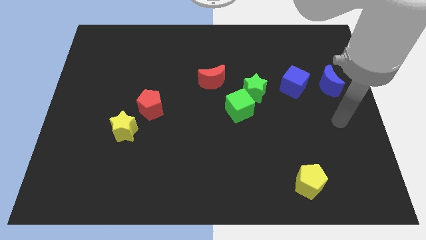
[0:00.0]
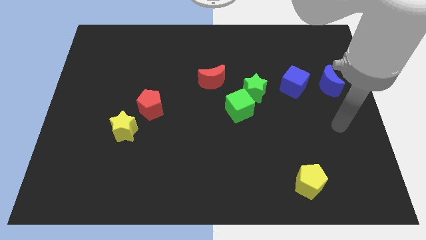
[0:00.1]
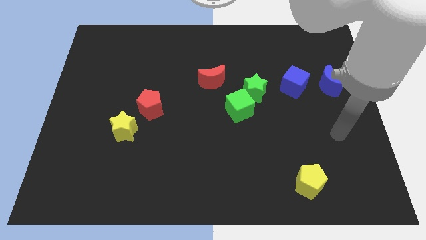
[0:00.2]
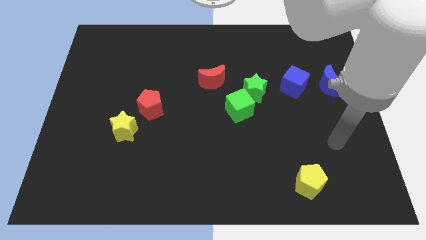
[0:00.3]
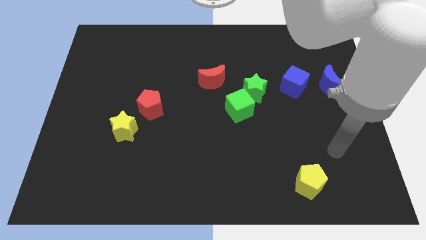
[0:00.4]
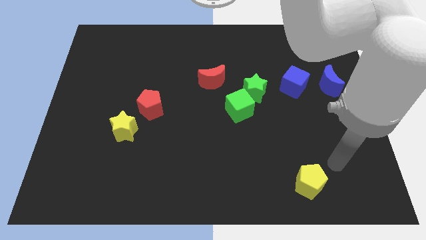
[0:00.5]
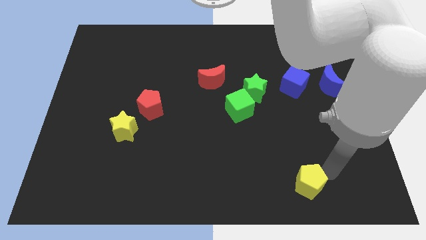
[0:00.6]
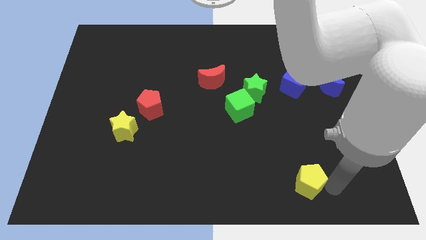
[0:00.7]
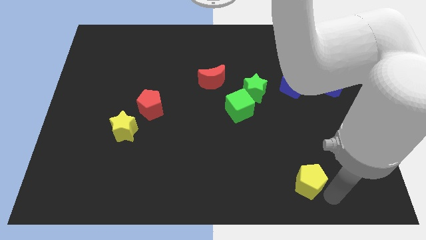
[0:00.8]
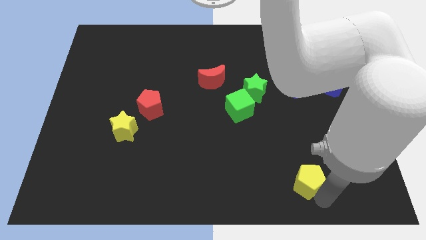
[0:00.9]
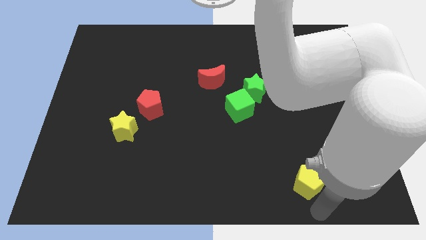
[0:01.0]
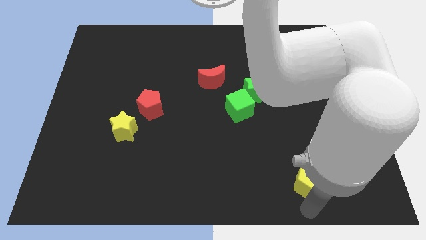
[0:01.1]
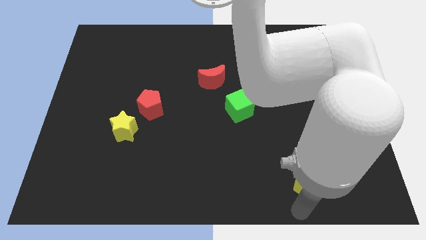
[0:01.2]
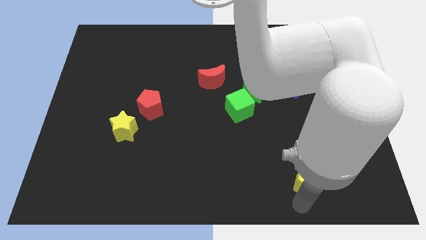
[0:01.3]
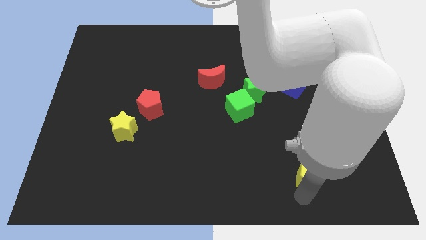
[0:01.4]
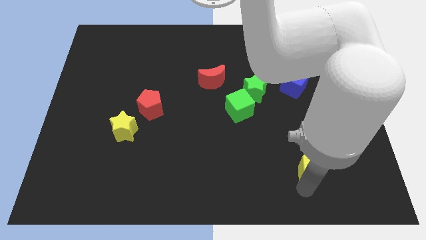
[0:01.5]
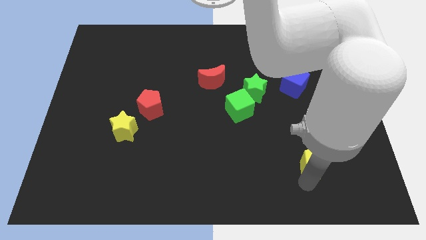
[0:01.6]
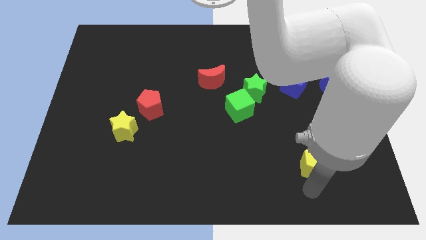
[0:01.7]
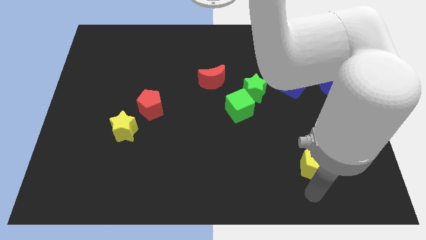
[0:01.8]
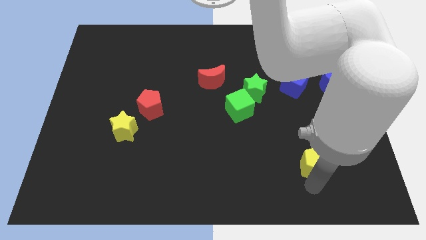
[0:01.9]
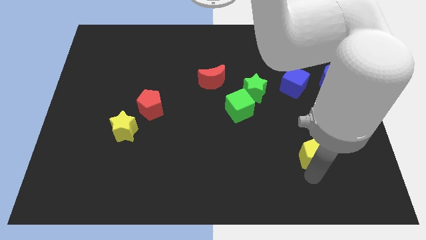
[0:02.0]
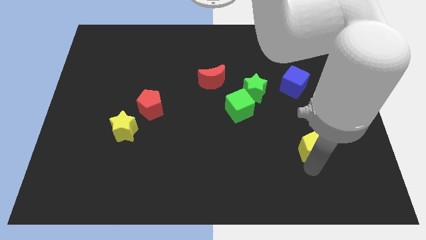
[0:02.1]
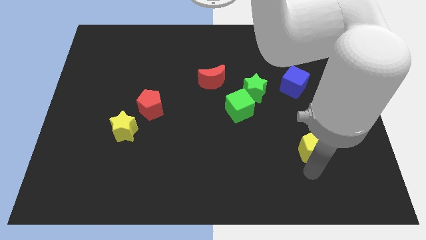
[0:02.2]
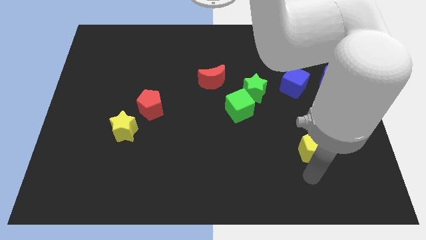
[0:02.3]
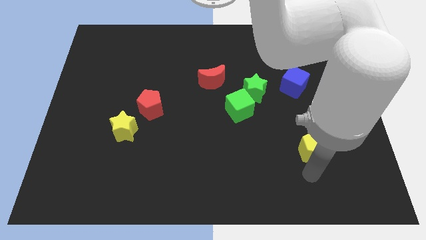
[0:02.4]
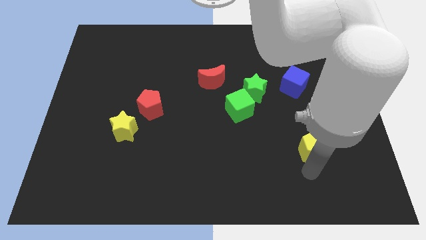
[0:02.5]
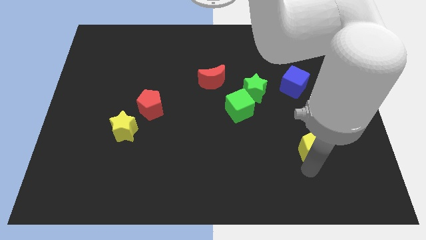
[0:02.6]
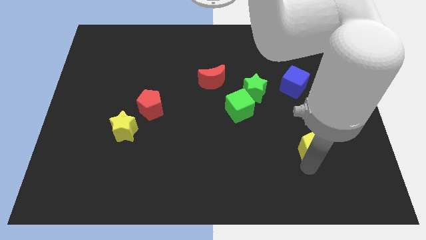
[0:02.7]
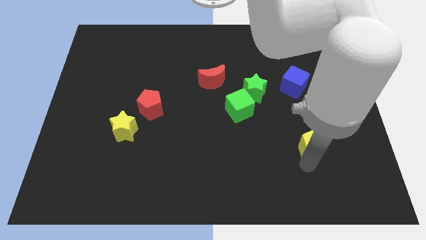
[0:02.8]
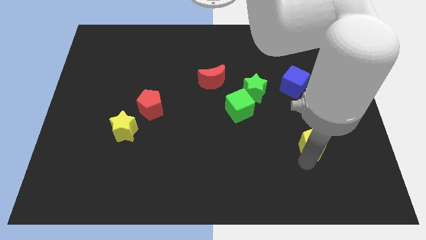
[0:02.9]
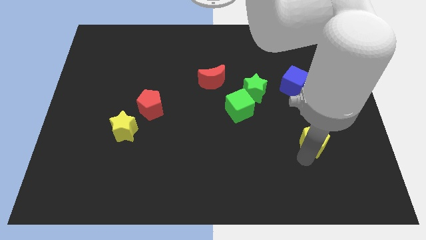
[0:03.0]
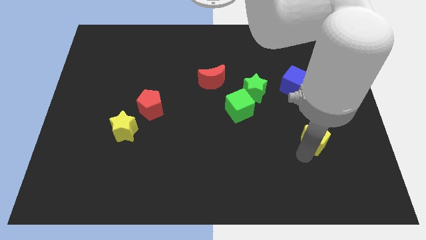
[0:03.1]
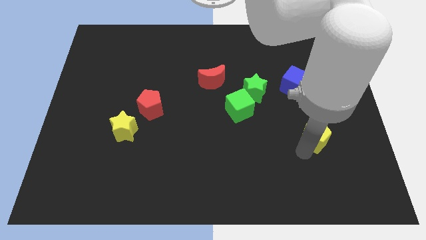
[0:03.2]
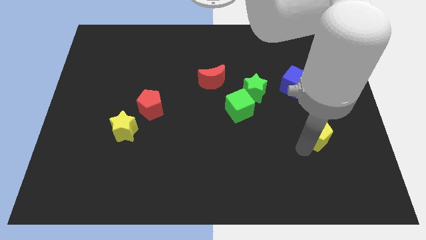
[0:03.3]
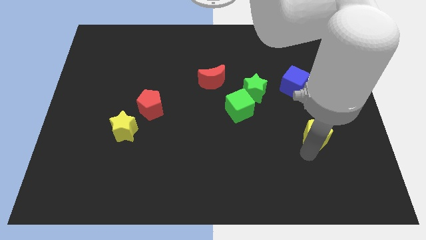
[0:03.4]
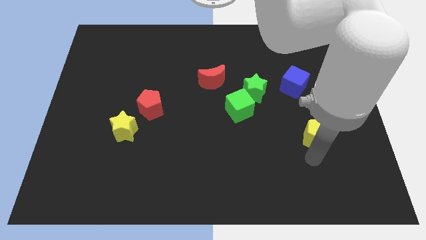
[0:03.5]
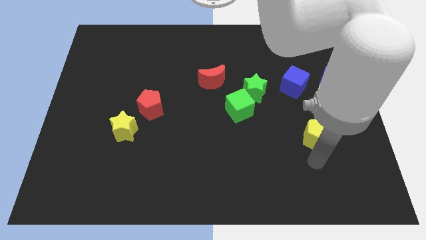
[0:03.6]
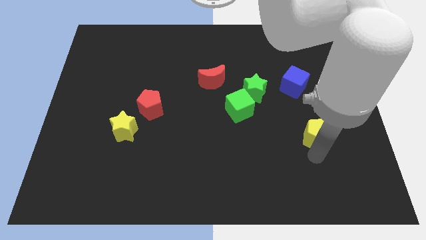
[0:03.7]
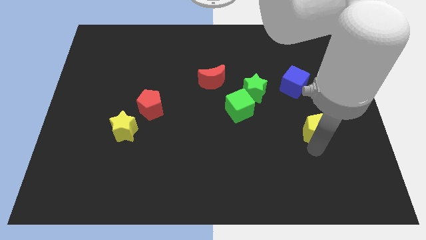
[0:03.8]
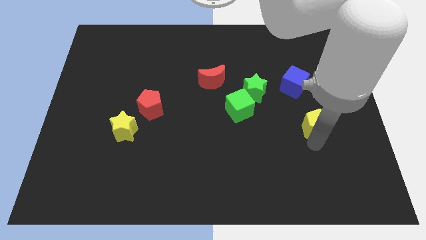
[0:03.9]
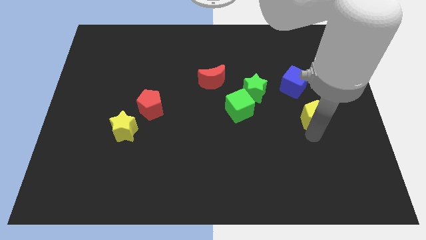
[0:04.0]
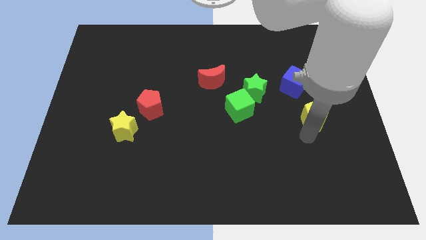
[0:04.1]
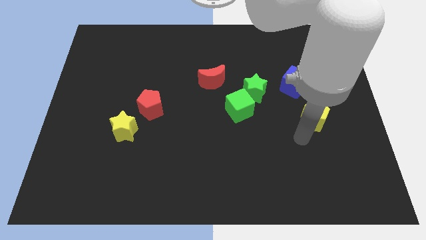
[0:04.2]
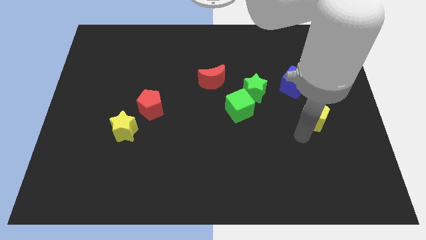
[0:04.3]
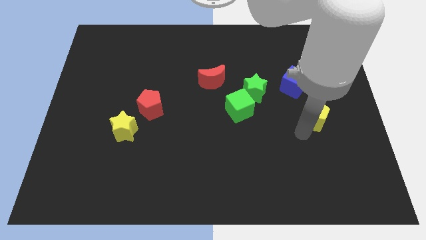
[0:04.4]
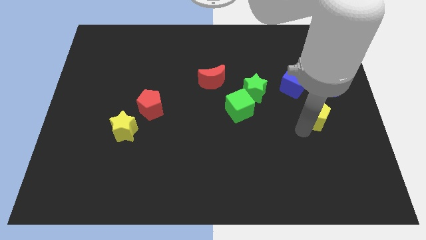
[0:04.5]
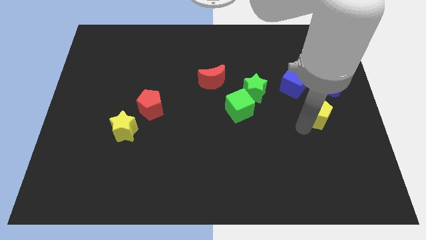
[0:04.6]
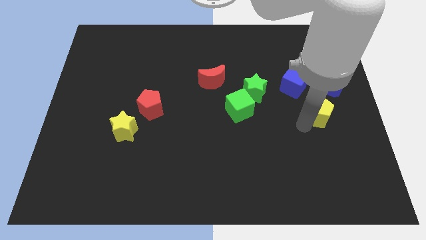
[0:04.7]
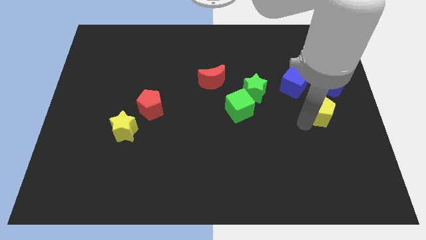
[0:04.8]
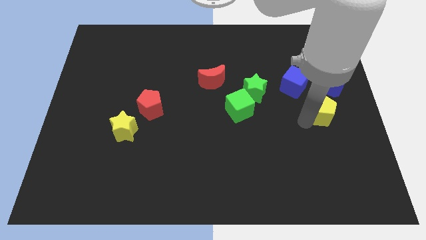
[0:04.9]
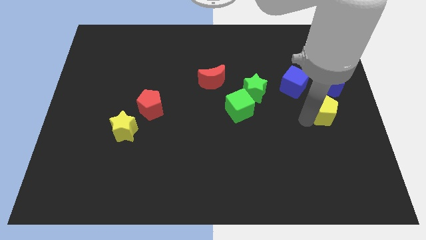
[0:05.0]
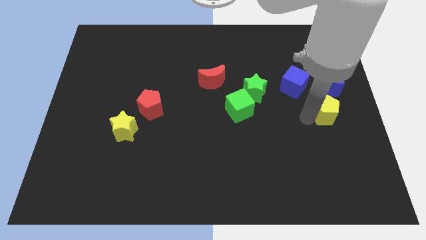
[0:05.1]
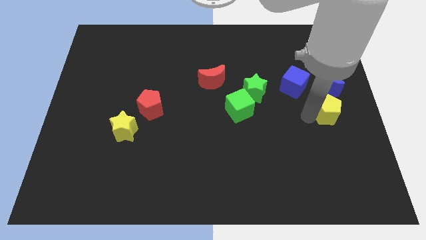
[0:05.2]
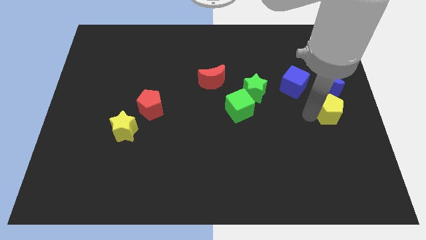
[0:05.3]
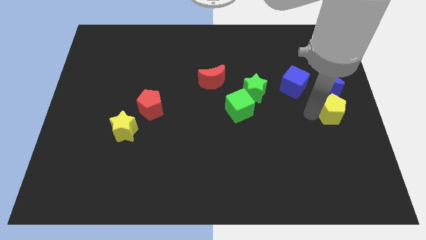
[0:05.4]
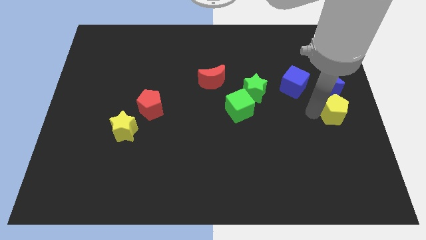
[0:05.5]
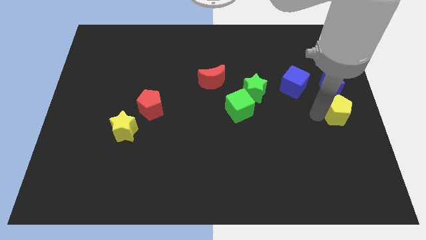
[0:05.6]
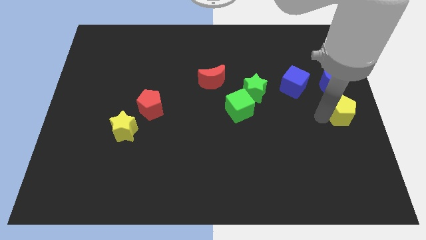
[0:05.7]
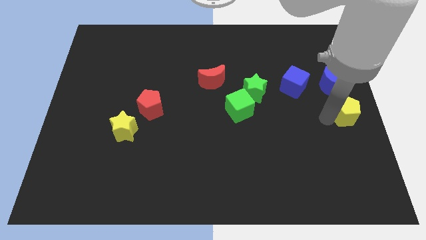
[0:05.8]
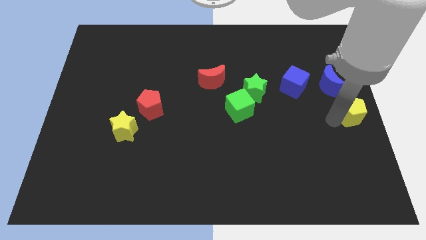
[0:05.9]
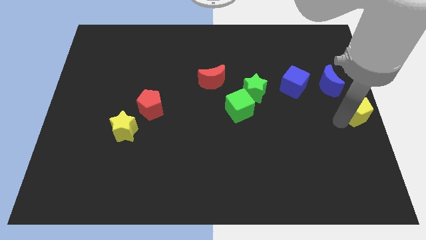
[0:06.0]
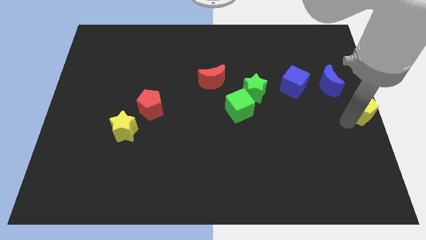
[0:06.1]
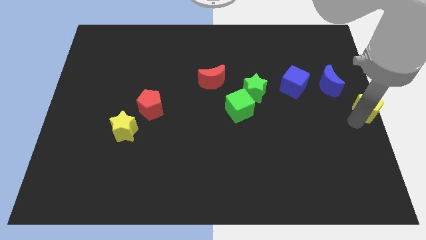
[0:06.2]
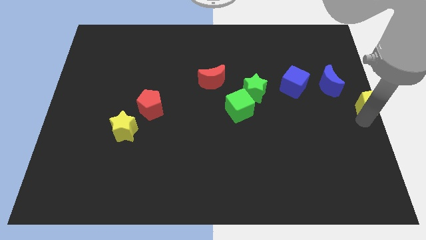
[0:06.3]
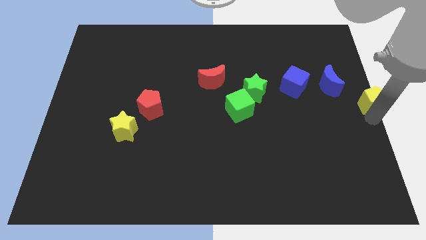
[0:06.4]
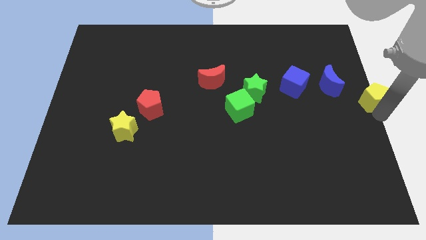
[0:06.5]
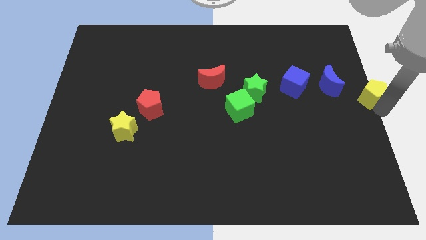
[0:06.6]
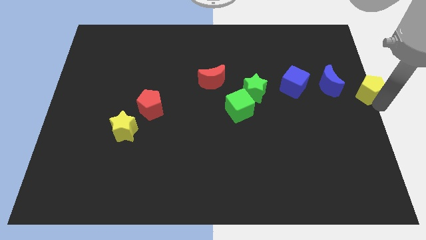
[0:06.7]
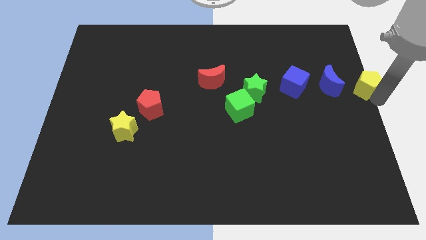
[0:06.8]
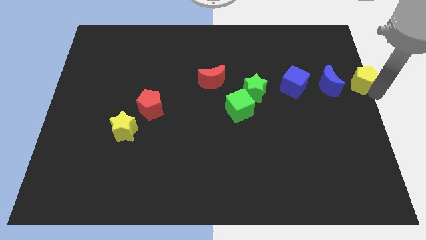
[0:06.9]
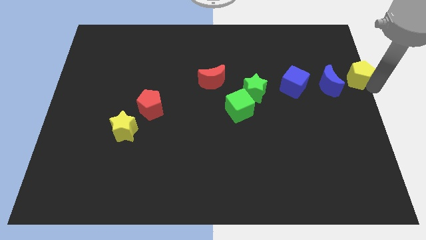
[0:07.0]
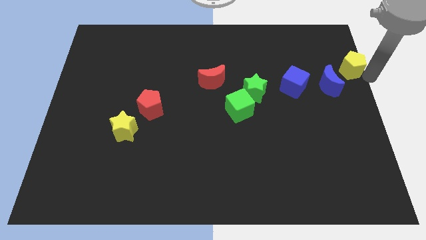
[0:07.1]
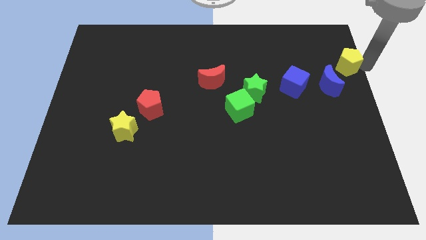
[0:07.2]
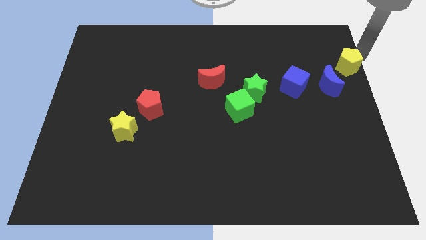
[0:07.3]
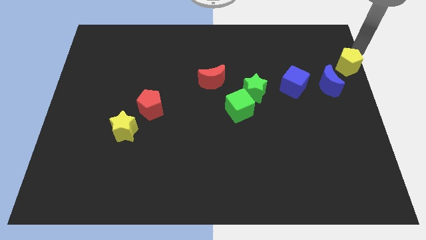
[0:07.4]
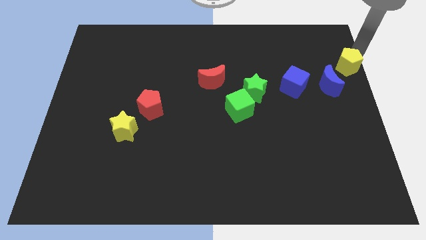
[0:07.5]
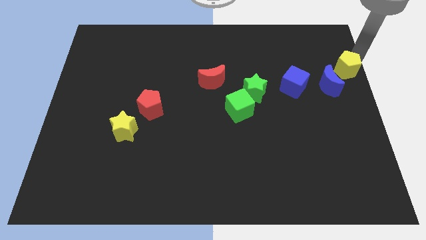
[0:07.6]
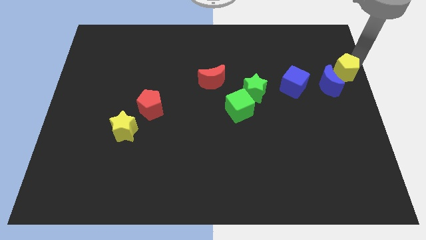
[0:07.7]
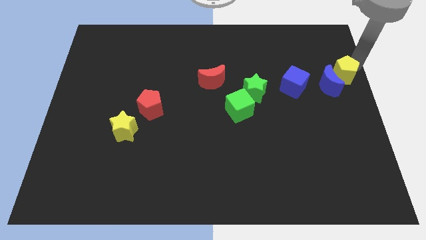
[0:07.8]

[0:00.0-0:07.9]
move the yellow pentagon close to the blue moon
